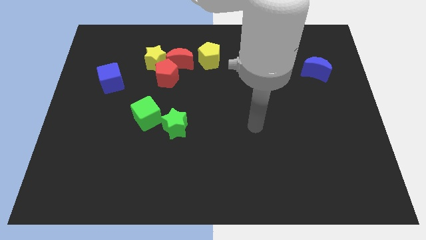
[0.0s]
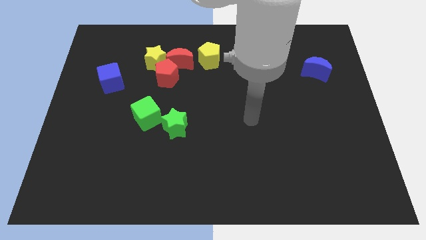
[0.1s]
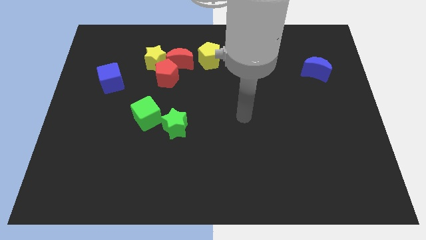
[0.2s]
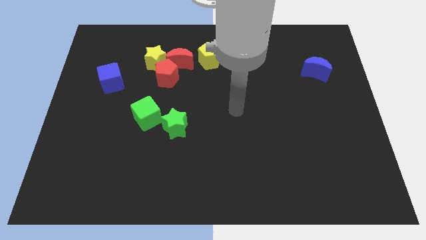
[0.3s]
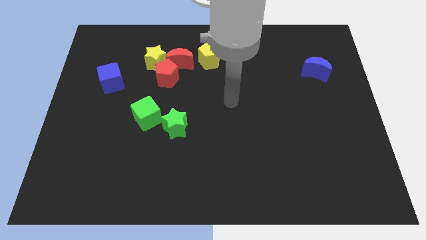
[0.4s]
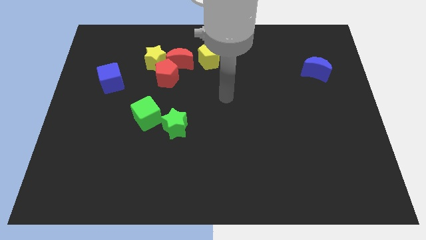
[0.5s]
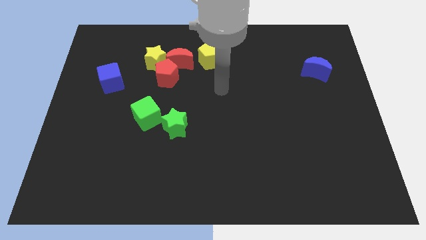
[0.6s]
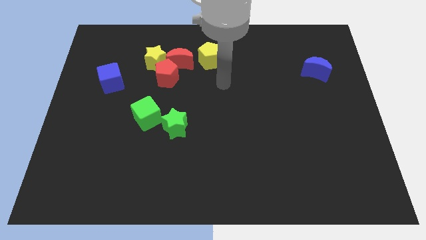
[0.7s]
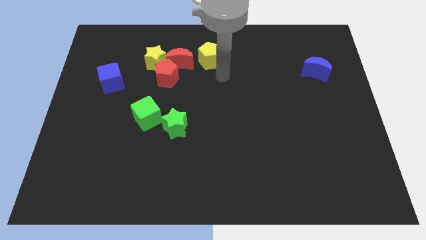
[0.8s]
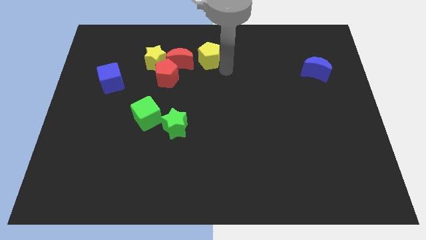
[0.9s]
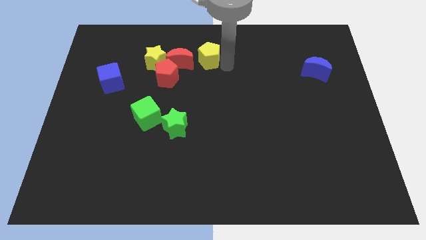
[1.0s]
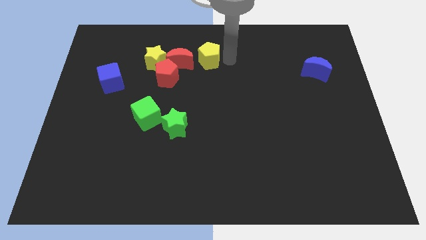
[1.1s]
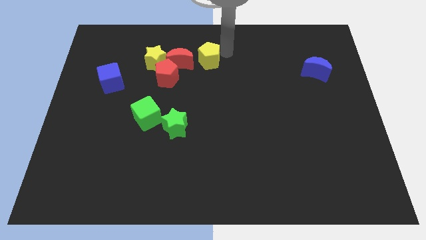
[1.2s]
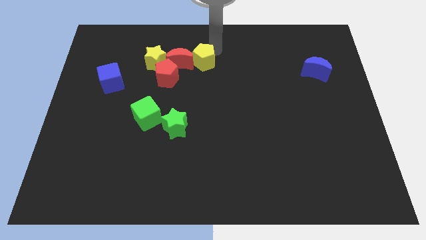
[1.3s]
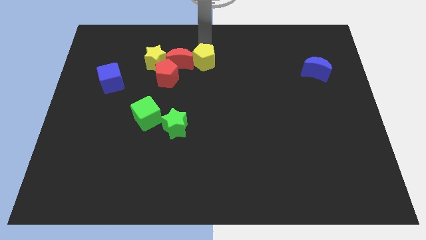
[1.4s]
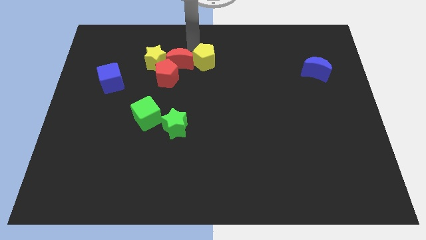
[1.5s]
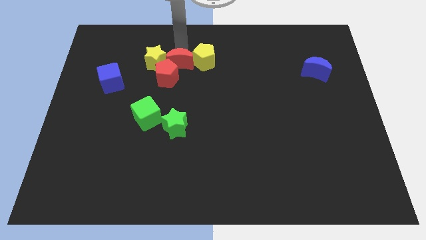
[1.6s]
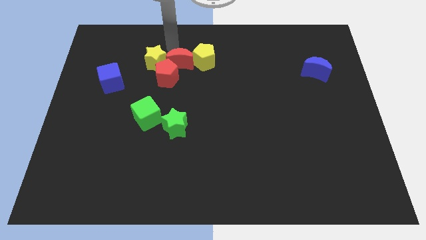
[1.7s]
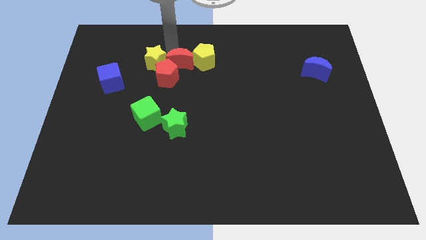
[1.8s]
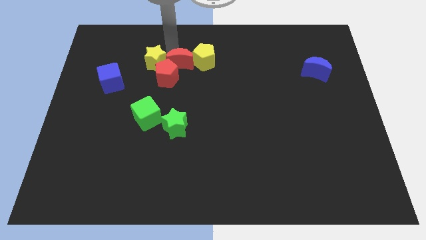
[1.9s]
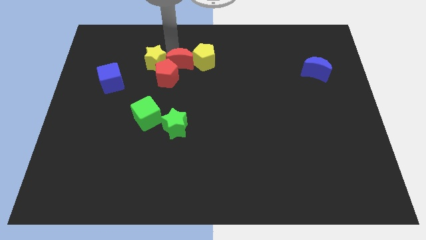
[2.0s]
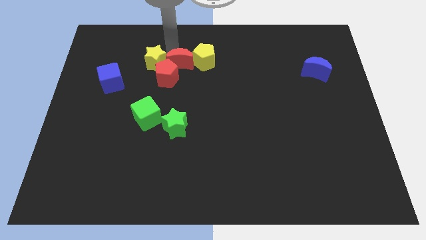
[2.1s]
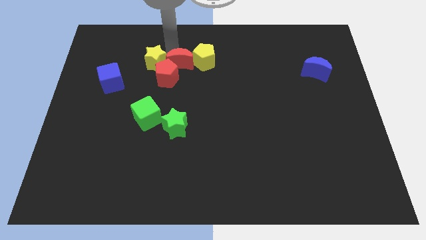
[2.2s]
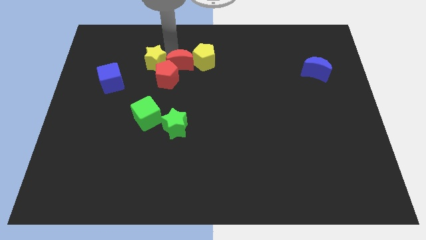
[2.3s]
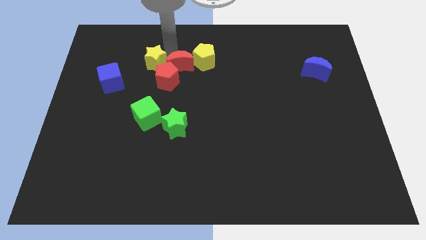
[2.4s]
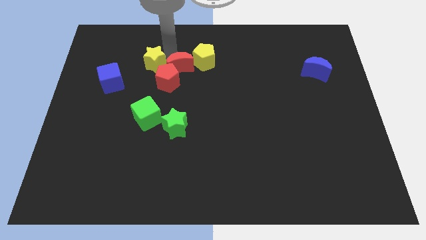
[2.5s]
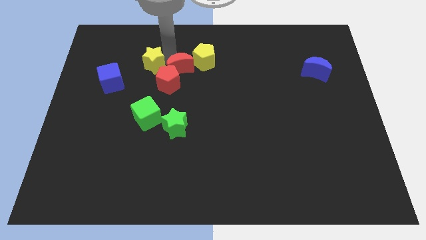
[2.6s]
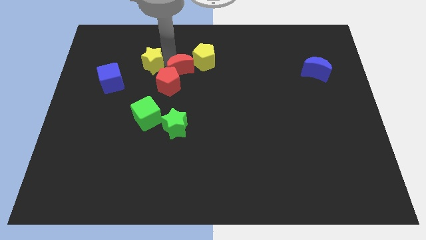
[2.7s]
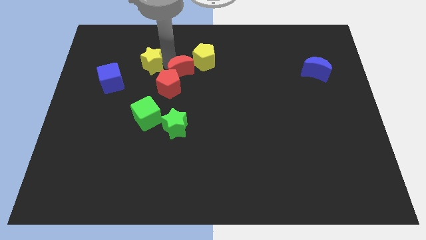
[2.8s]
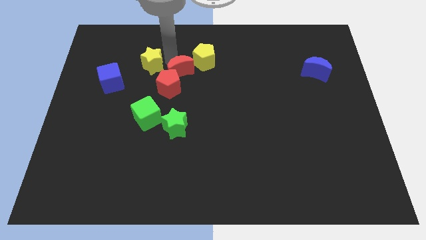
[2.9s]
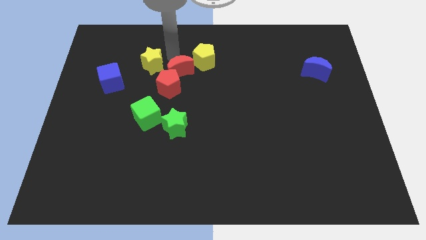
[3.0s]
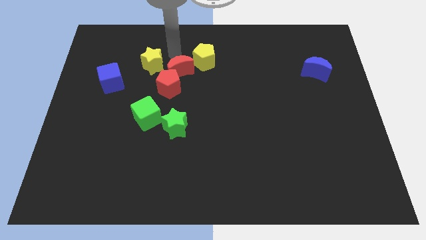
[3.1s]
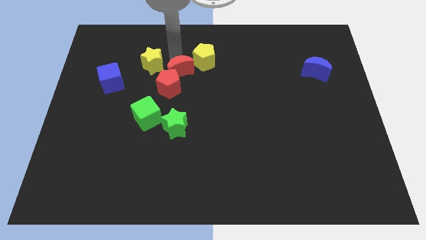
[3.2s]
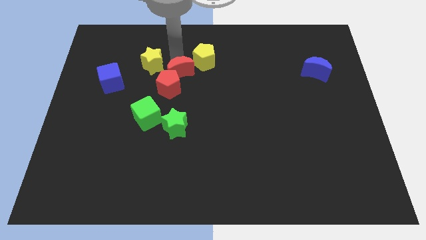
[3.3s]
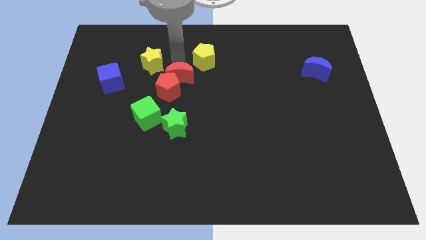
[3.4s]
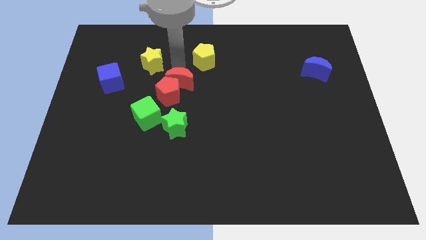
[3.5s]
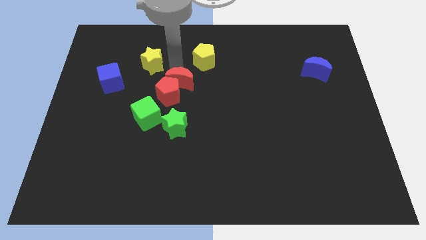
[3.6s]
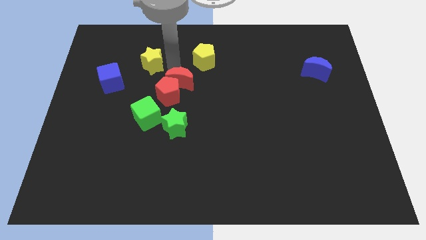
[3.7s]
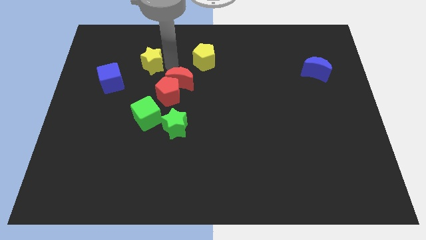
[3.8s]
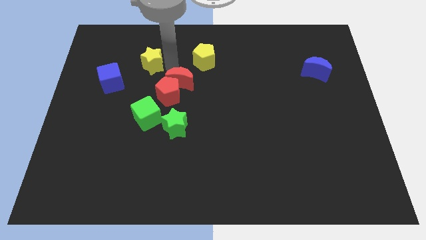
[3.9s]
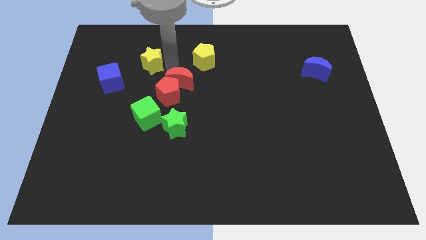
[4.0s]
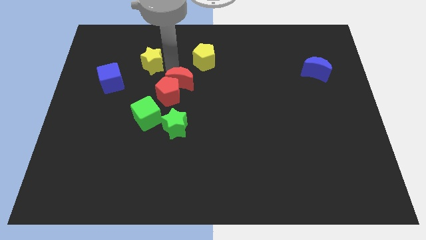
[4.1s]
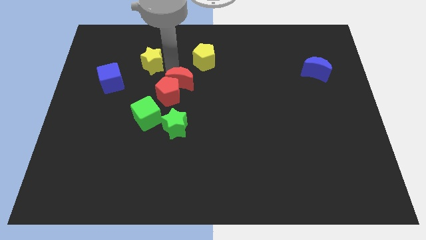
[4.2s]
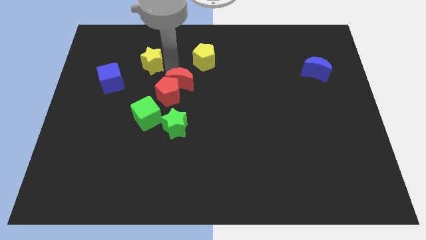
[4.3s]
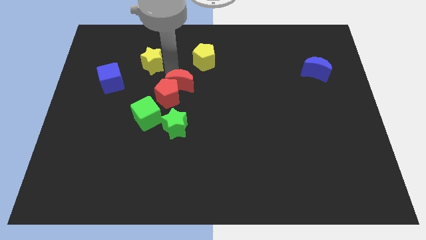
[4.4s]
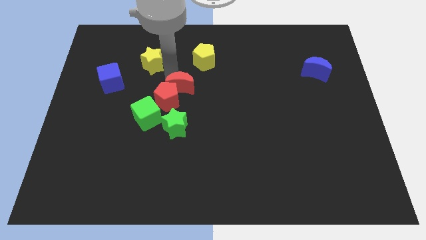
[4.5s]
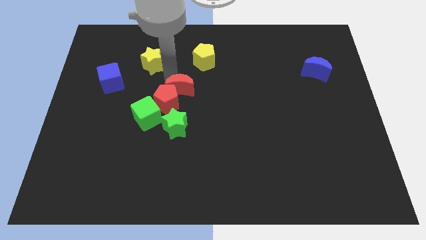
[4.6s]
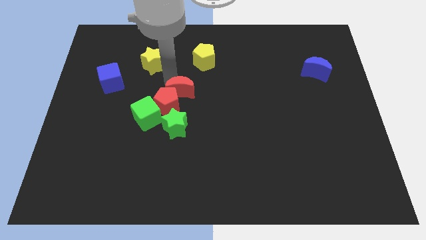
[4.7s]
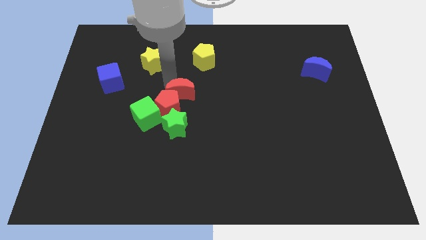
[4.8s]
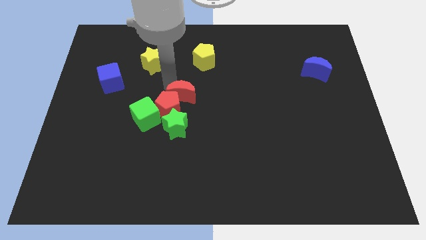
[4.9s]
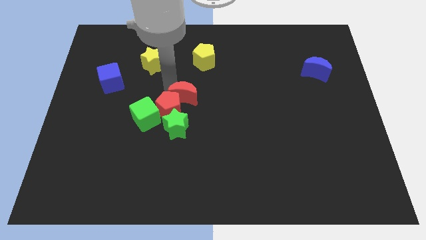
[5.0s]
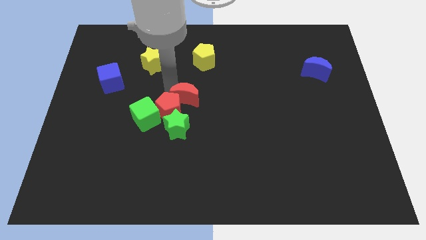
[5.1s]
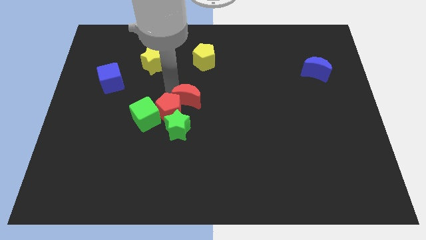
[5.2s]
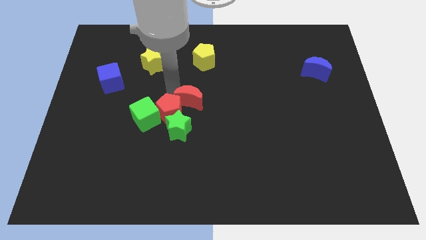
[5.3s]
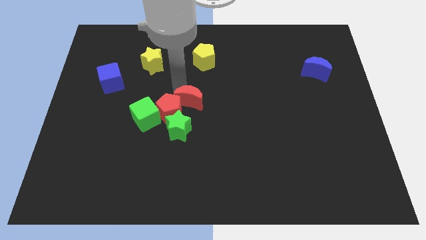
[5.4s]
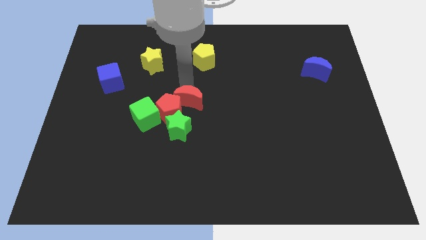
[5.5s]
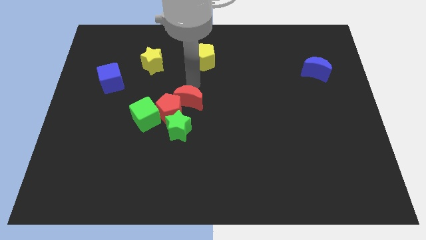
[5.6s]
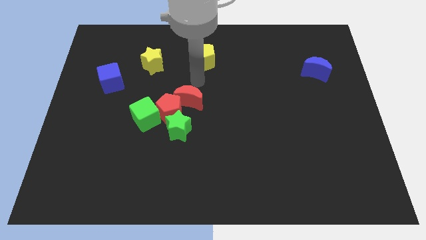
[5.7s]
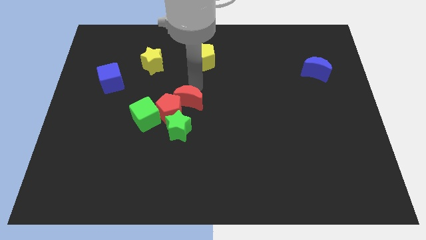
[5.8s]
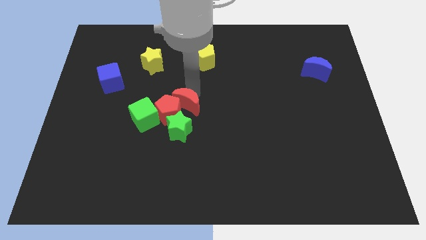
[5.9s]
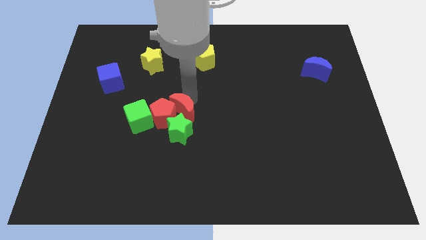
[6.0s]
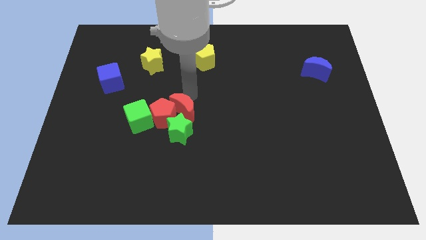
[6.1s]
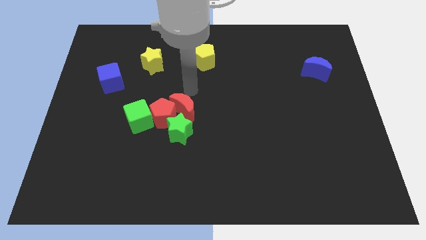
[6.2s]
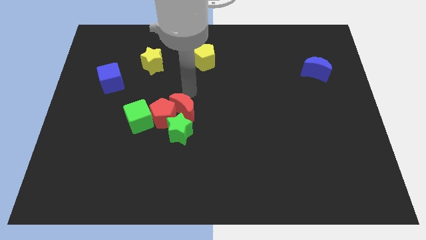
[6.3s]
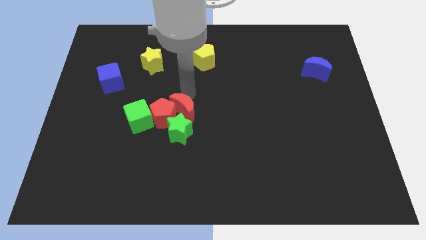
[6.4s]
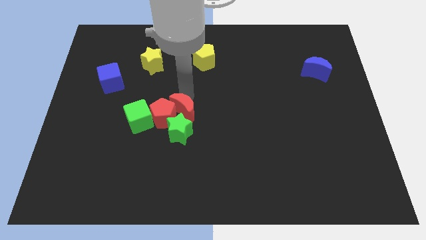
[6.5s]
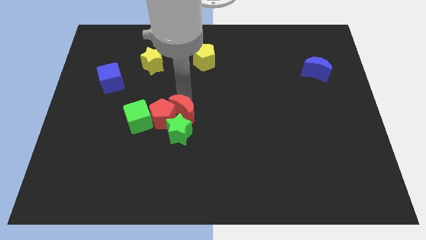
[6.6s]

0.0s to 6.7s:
slide the red moon to the green star
